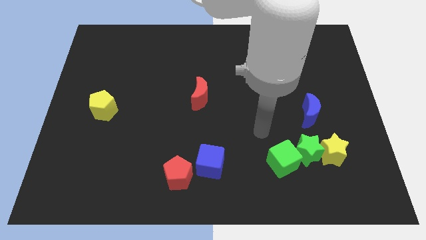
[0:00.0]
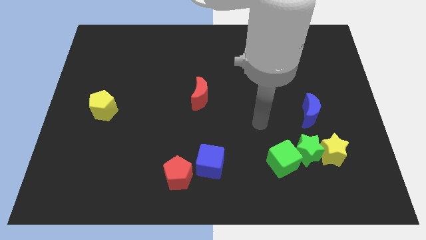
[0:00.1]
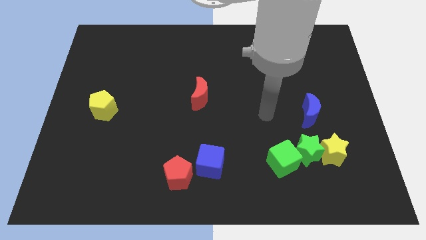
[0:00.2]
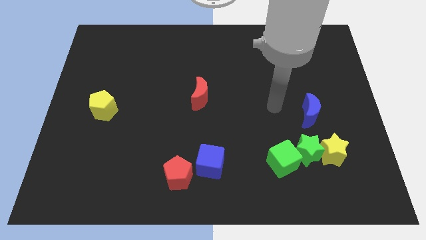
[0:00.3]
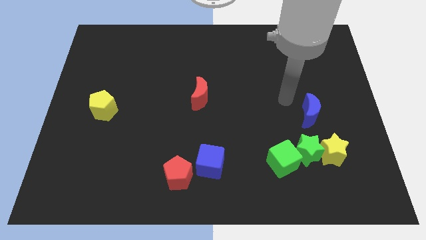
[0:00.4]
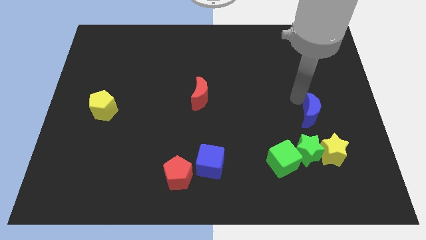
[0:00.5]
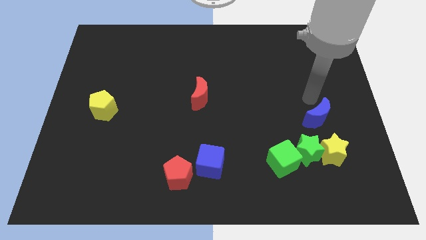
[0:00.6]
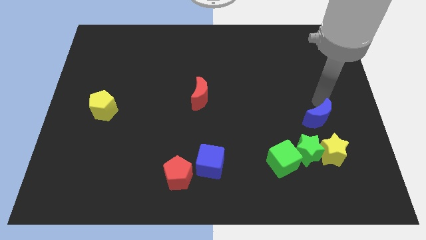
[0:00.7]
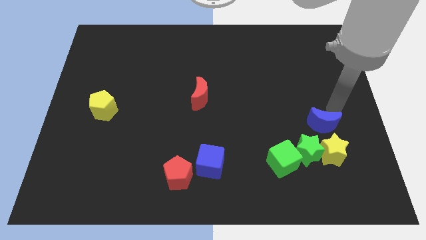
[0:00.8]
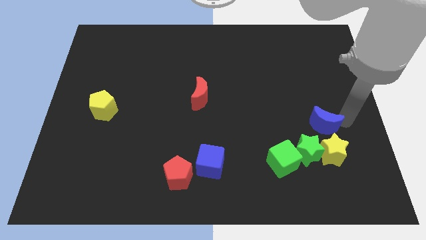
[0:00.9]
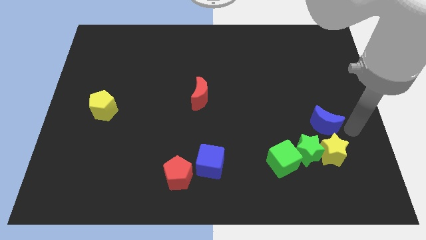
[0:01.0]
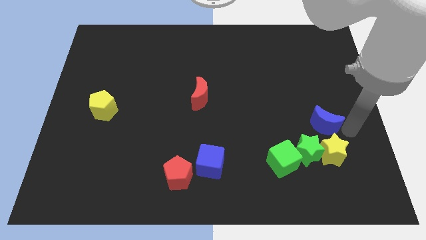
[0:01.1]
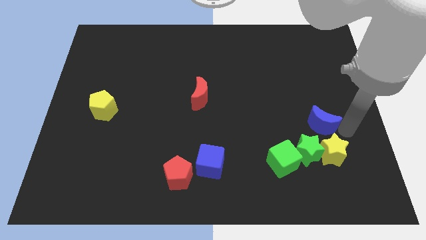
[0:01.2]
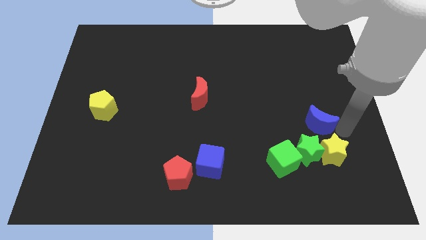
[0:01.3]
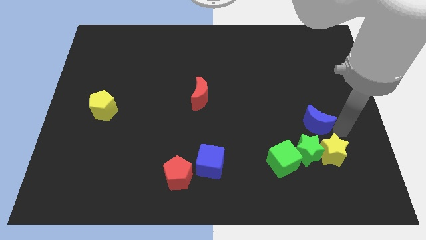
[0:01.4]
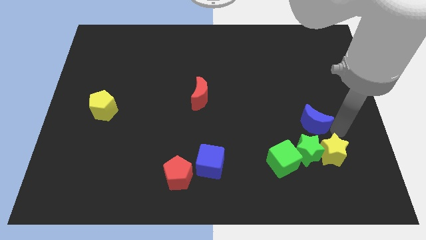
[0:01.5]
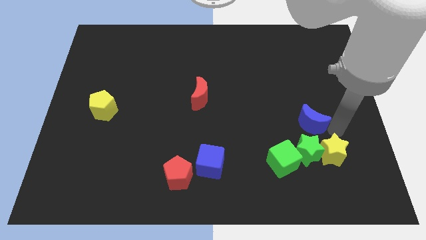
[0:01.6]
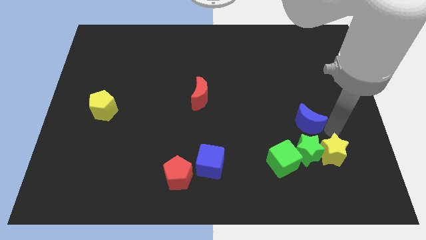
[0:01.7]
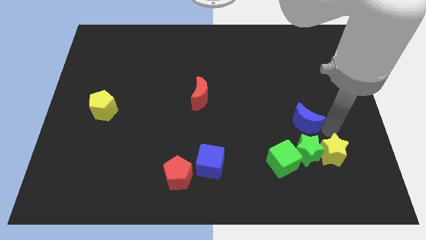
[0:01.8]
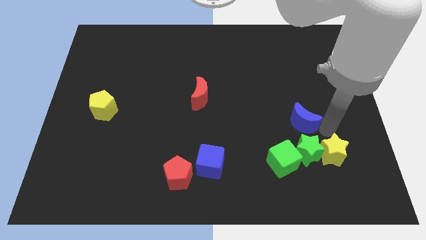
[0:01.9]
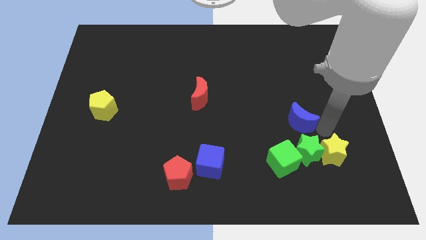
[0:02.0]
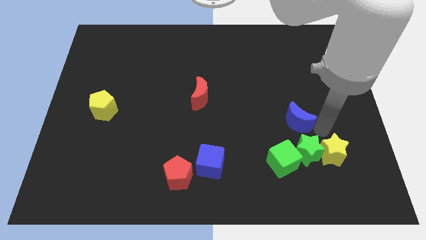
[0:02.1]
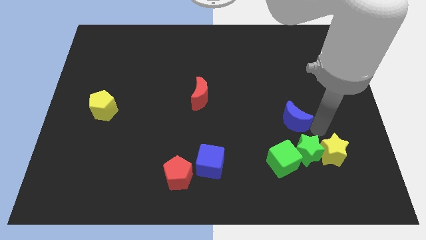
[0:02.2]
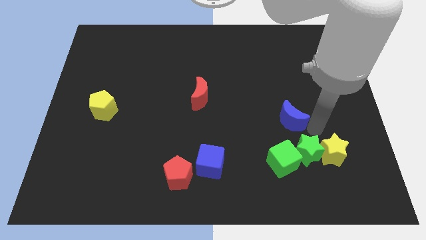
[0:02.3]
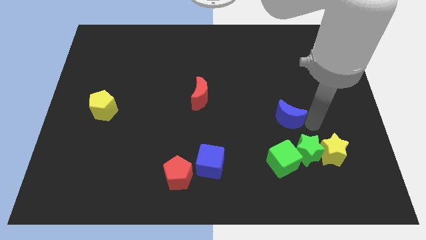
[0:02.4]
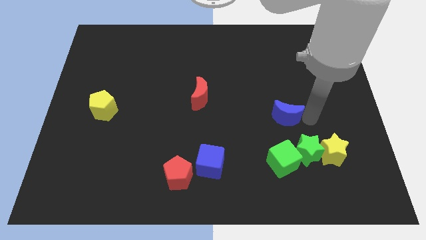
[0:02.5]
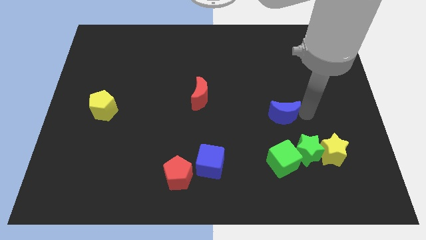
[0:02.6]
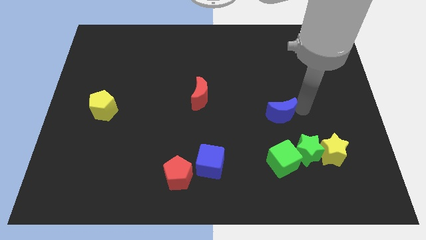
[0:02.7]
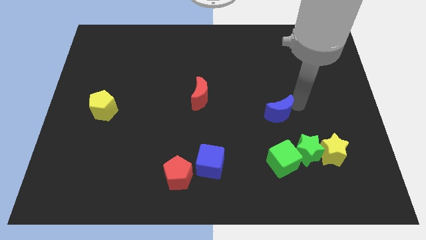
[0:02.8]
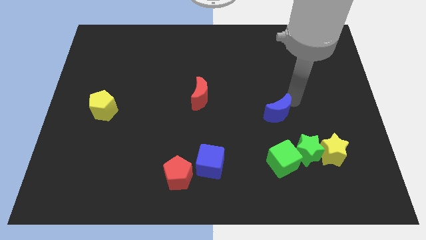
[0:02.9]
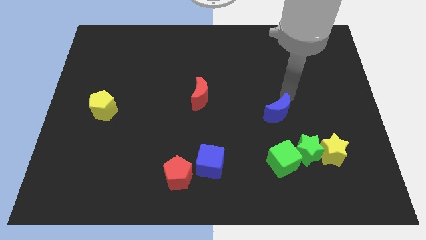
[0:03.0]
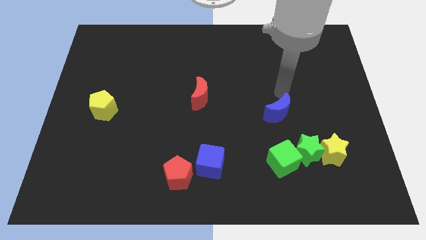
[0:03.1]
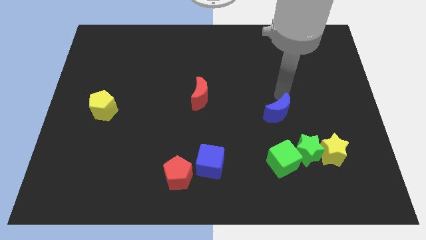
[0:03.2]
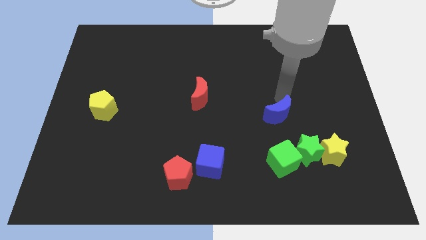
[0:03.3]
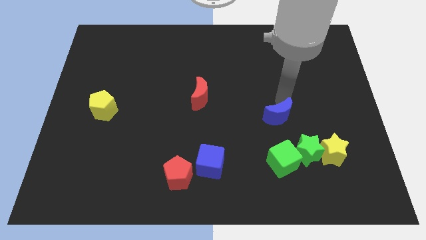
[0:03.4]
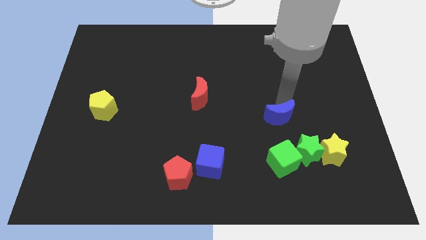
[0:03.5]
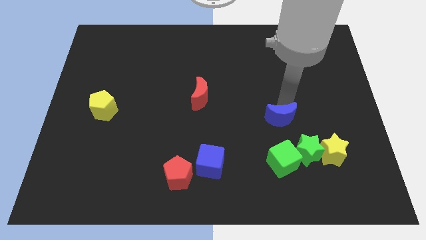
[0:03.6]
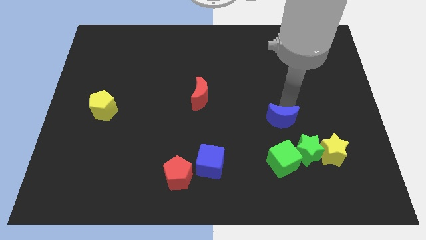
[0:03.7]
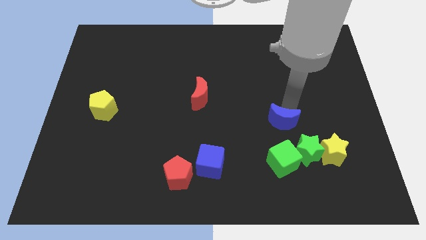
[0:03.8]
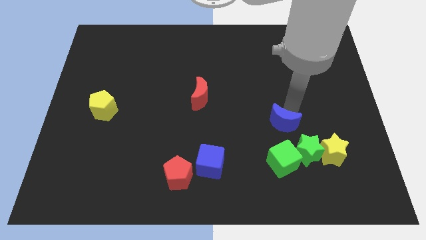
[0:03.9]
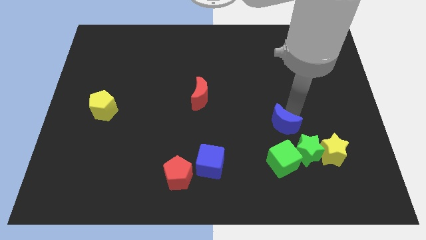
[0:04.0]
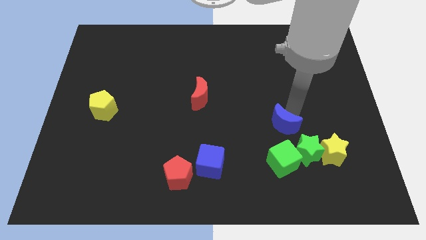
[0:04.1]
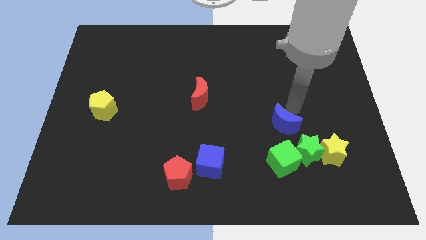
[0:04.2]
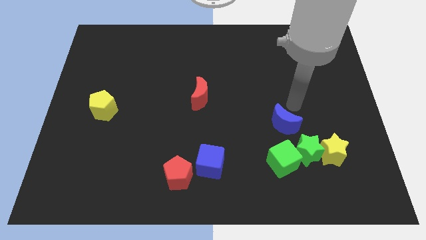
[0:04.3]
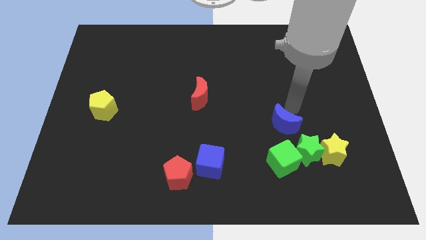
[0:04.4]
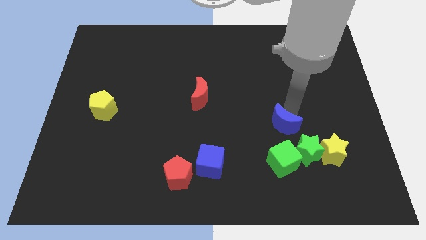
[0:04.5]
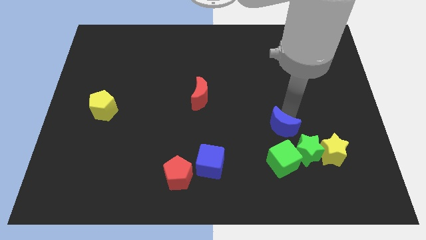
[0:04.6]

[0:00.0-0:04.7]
slightly slide the blue moon downwards and to the left

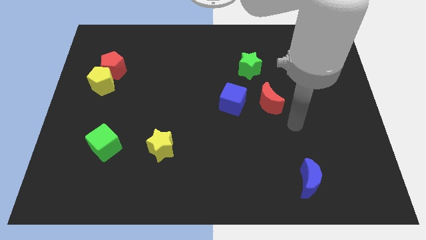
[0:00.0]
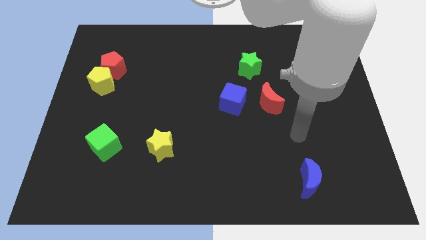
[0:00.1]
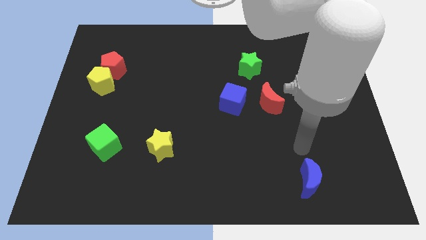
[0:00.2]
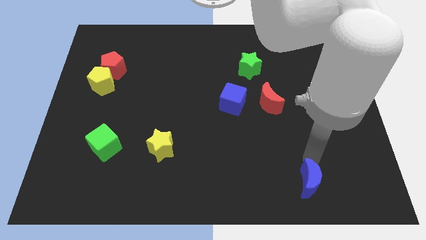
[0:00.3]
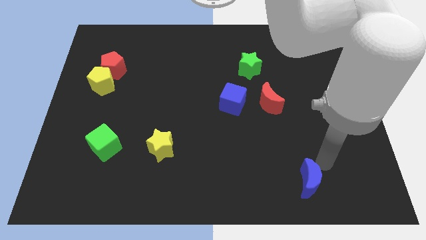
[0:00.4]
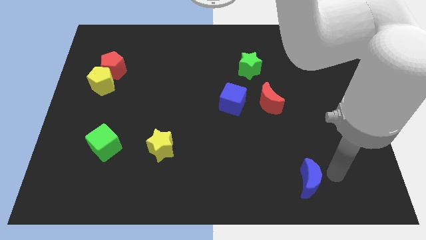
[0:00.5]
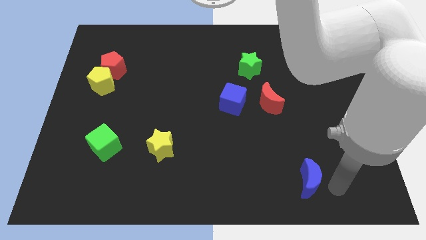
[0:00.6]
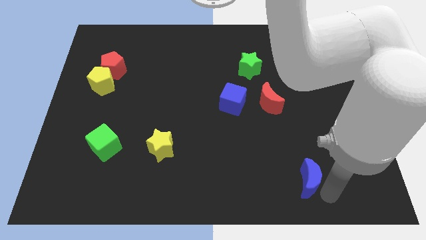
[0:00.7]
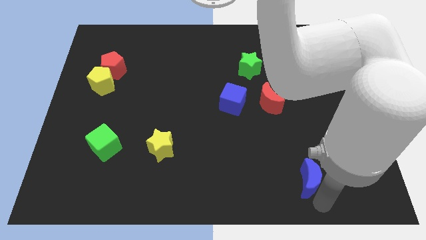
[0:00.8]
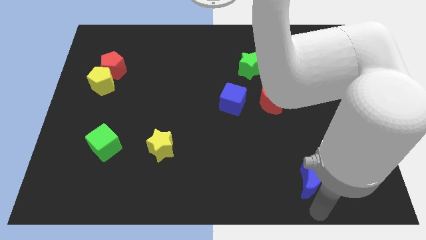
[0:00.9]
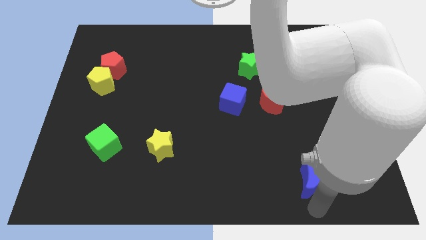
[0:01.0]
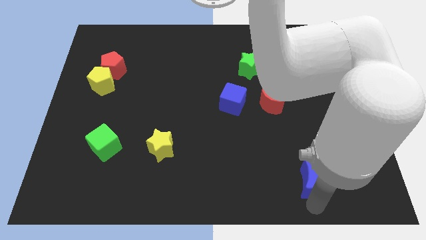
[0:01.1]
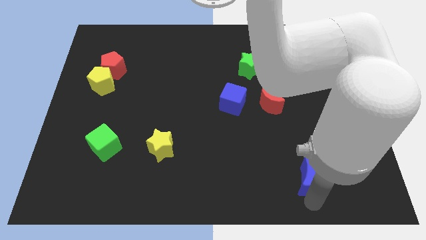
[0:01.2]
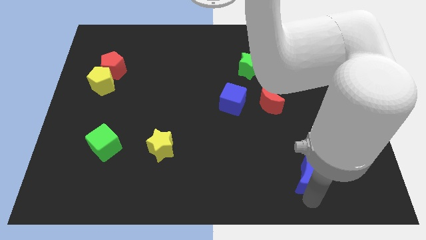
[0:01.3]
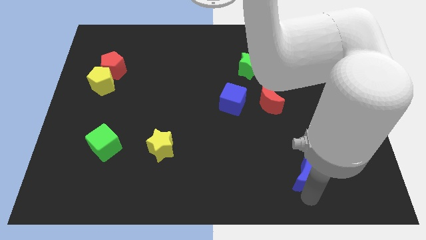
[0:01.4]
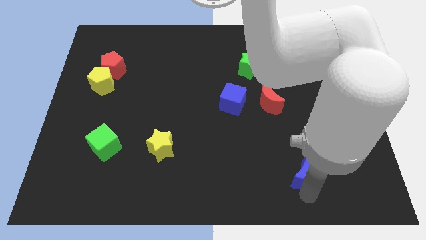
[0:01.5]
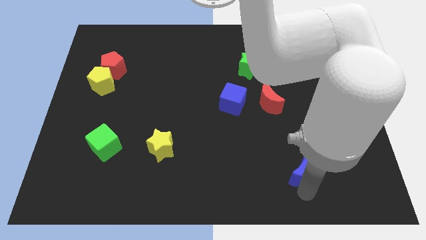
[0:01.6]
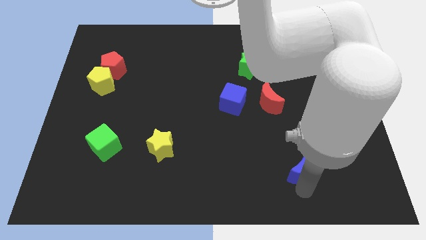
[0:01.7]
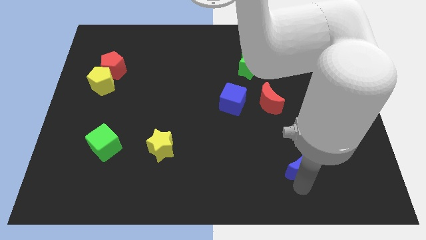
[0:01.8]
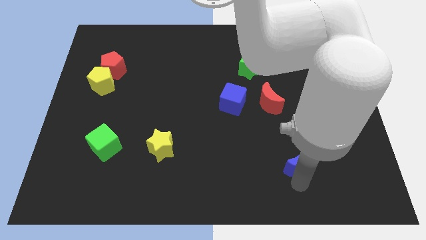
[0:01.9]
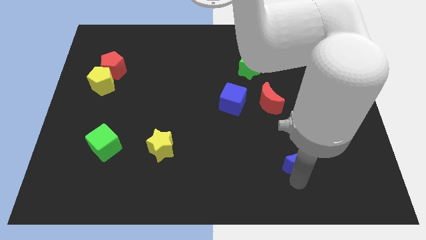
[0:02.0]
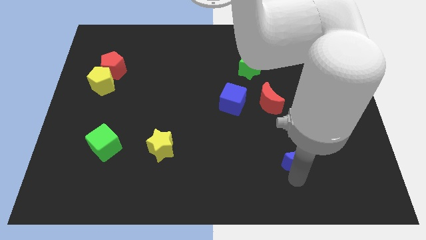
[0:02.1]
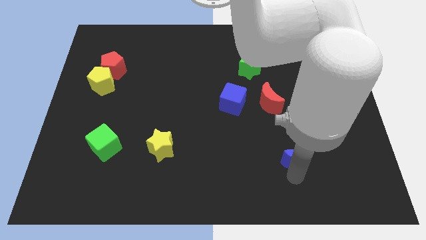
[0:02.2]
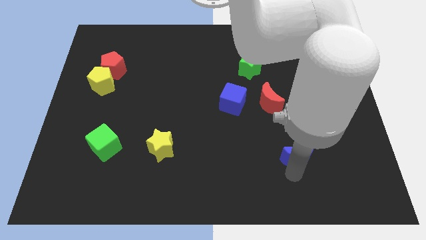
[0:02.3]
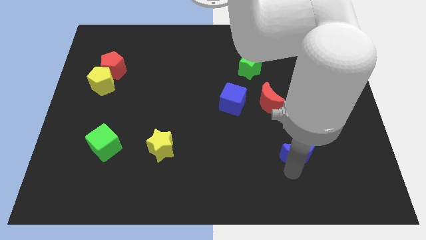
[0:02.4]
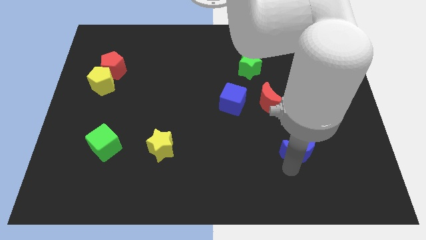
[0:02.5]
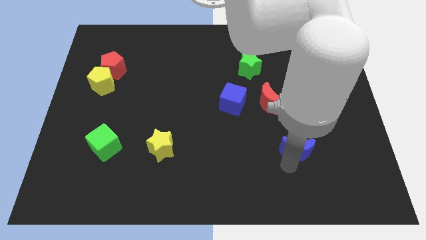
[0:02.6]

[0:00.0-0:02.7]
move the blue moon up a little bit

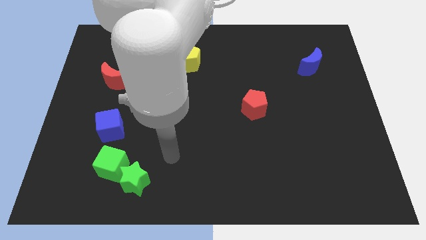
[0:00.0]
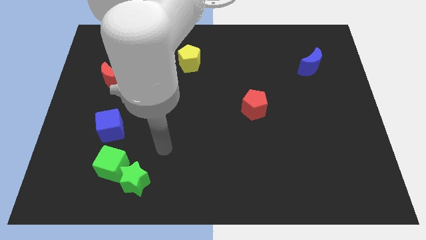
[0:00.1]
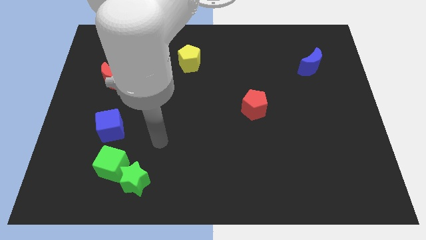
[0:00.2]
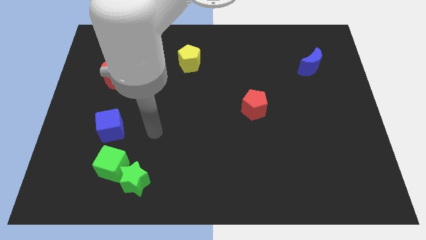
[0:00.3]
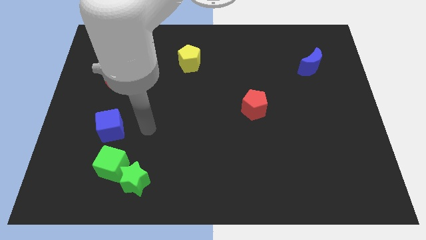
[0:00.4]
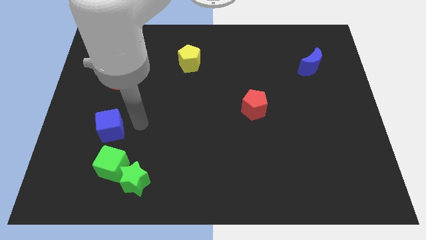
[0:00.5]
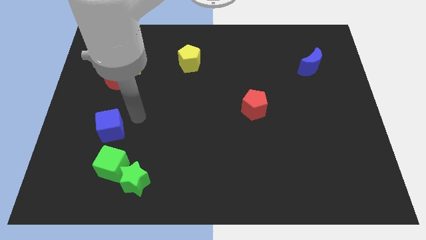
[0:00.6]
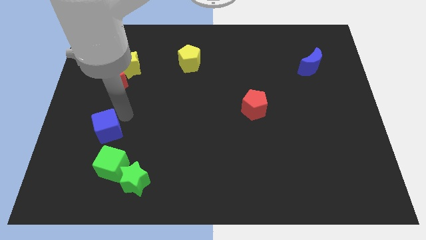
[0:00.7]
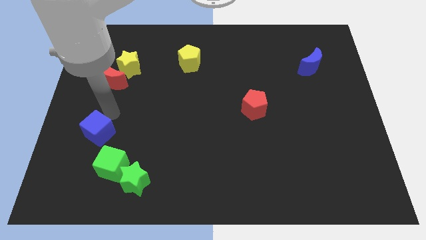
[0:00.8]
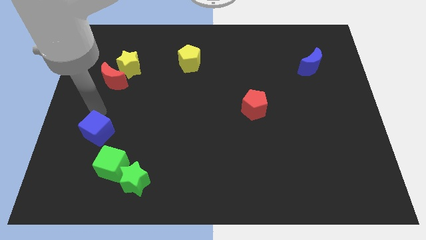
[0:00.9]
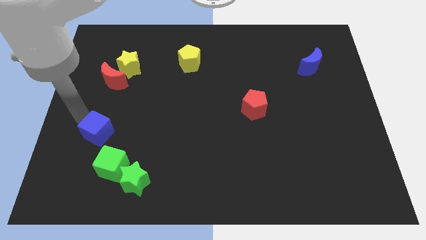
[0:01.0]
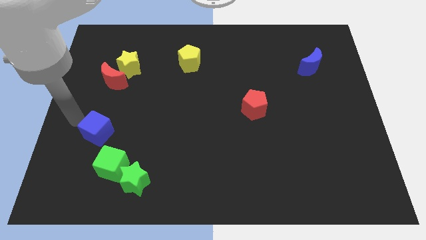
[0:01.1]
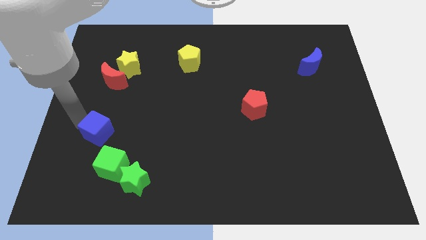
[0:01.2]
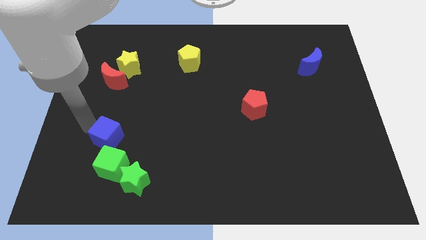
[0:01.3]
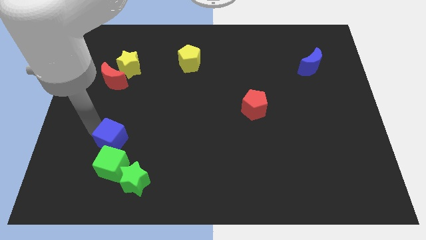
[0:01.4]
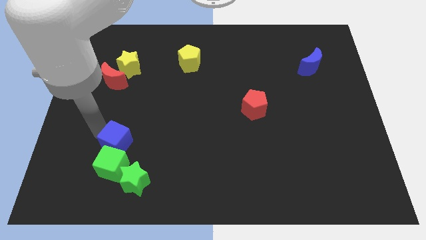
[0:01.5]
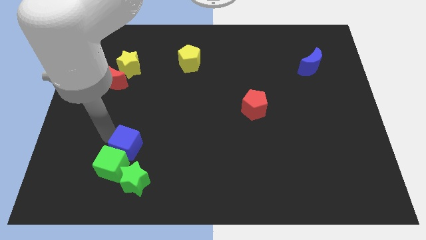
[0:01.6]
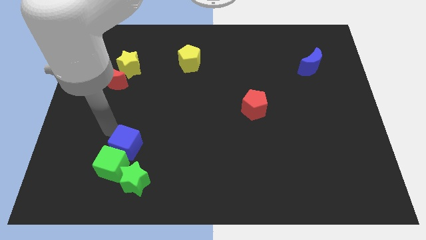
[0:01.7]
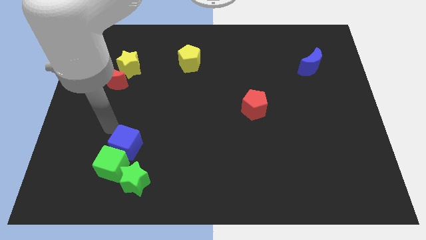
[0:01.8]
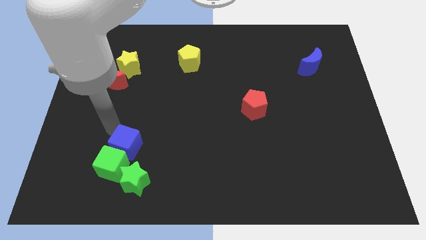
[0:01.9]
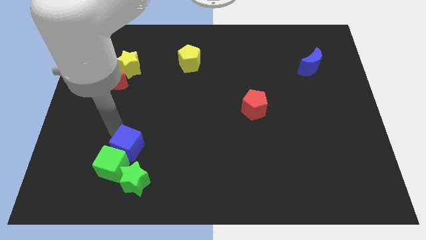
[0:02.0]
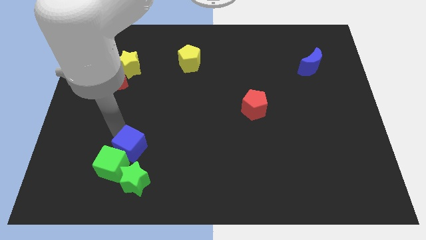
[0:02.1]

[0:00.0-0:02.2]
move the blue cube down and then to the right a little bit
